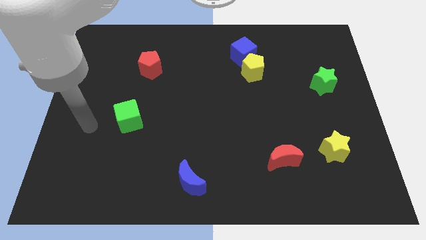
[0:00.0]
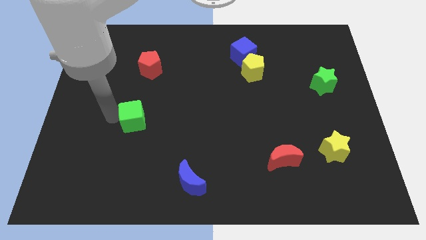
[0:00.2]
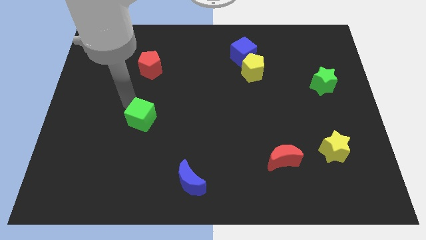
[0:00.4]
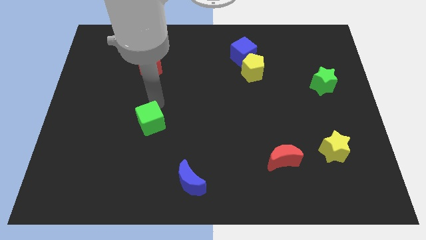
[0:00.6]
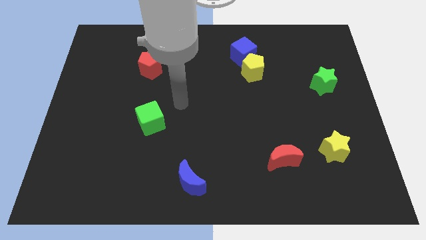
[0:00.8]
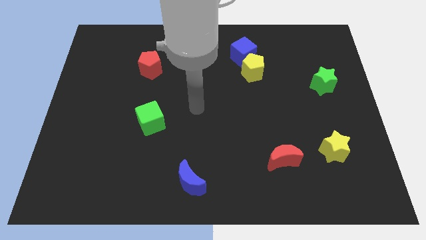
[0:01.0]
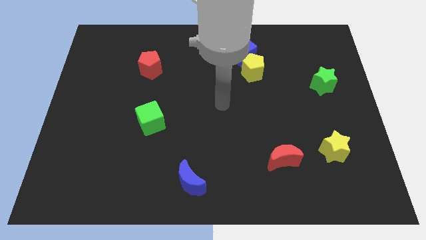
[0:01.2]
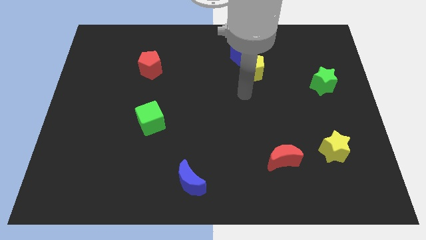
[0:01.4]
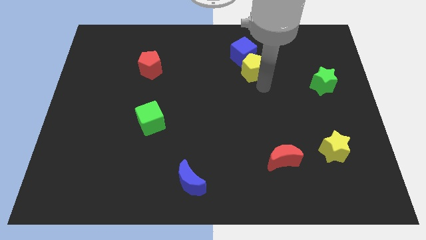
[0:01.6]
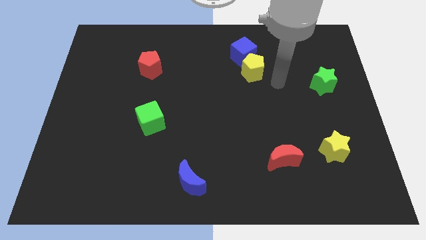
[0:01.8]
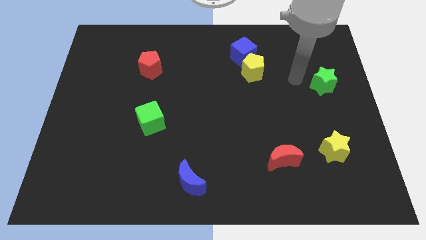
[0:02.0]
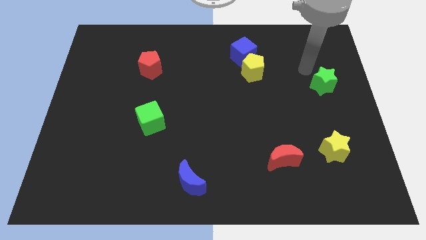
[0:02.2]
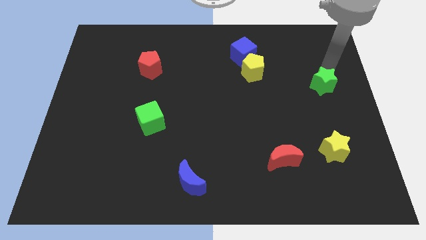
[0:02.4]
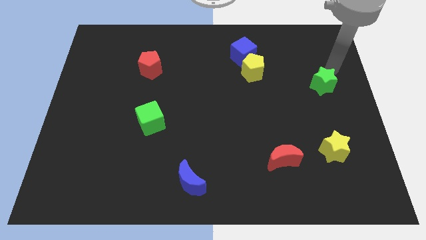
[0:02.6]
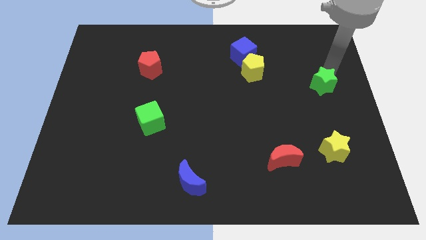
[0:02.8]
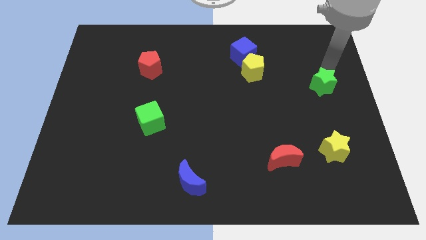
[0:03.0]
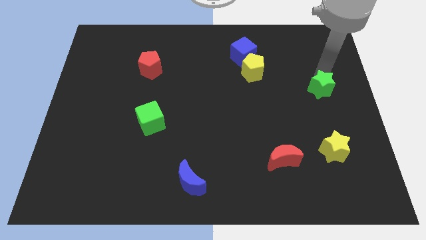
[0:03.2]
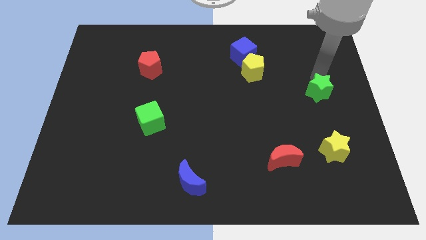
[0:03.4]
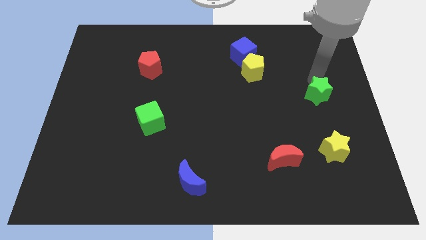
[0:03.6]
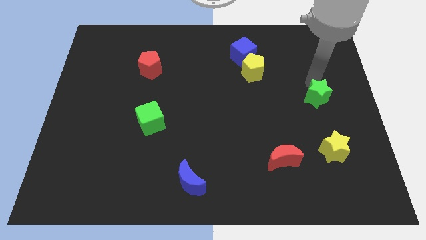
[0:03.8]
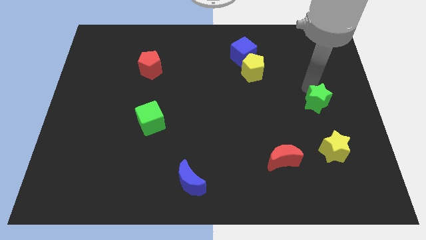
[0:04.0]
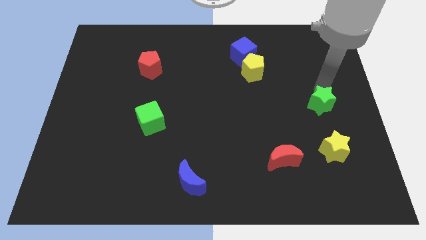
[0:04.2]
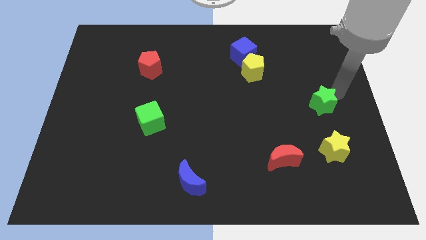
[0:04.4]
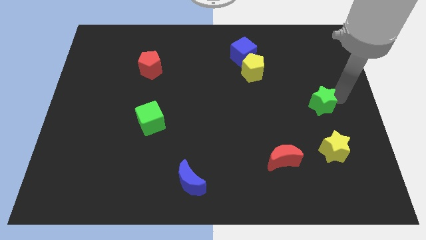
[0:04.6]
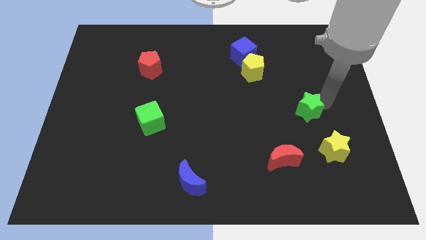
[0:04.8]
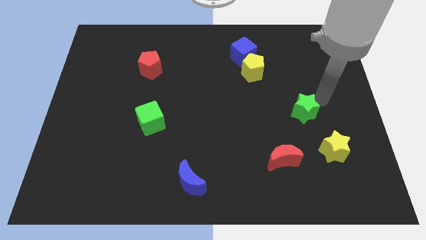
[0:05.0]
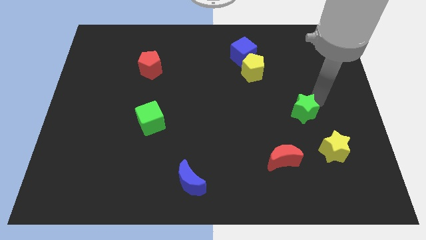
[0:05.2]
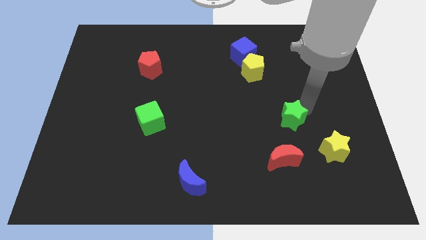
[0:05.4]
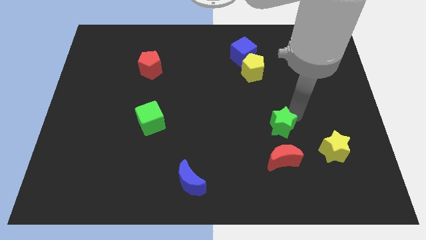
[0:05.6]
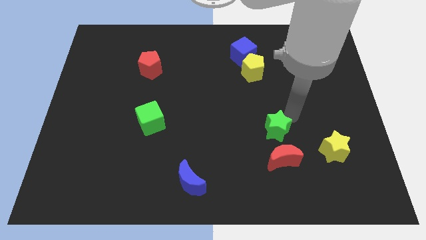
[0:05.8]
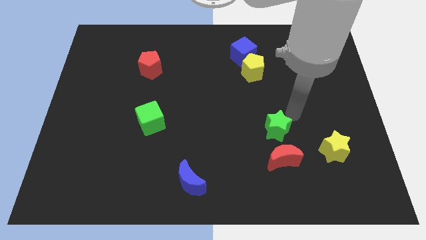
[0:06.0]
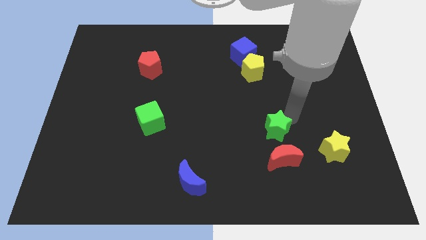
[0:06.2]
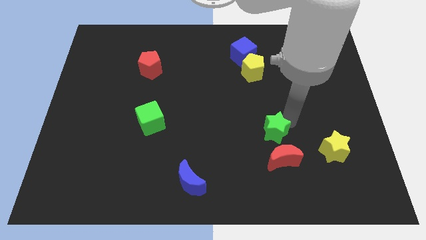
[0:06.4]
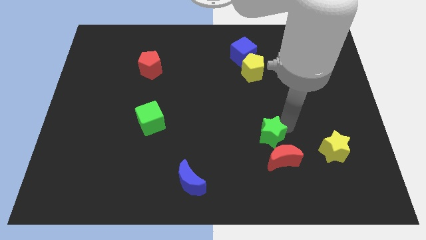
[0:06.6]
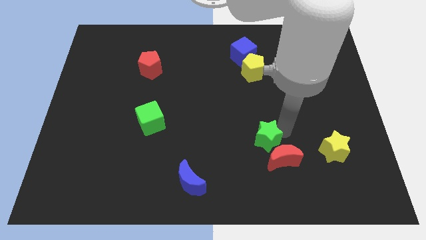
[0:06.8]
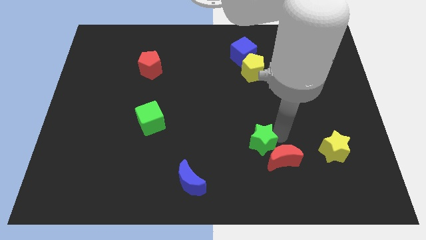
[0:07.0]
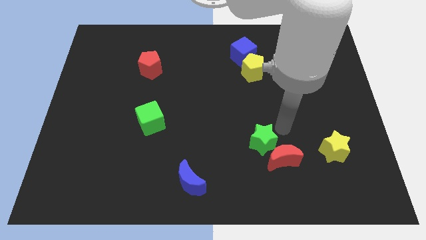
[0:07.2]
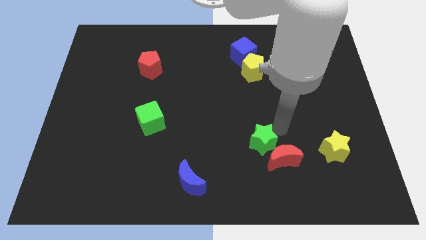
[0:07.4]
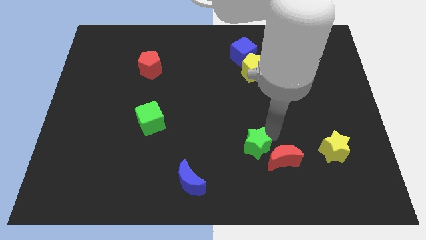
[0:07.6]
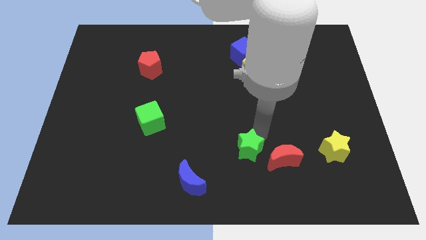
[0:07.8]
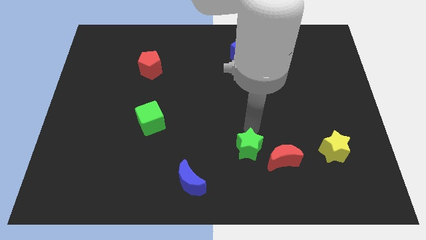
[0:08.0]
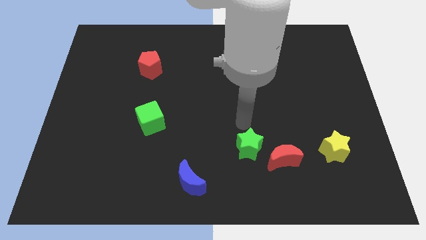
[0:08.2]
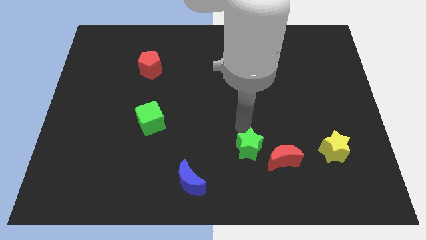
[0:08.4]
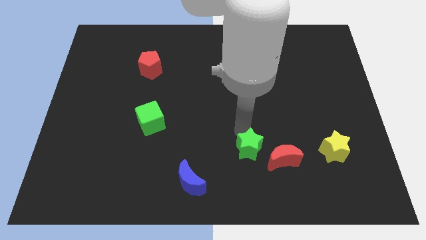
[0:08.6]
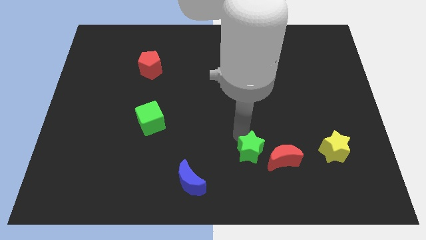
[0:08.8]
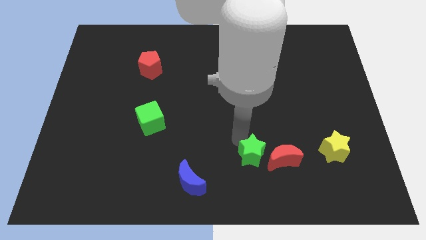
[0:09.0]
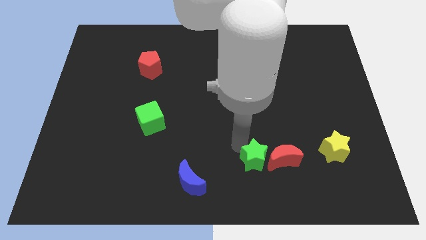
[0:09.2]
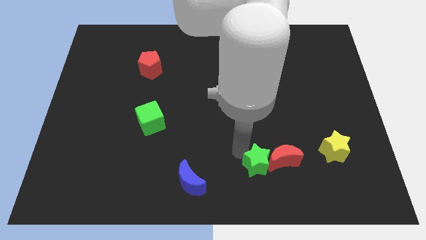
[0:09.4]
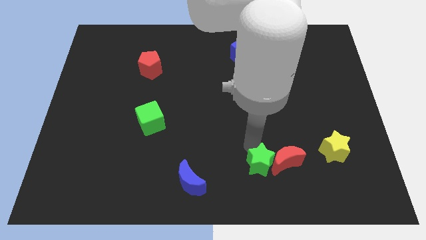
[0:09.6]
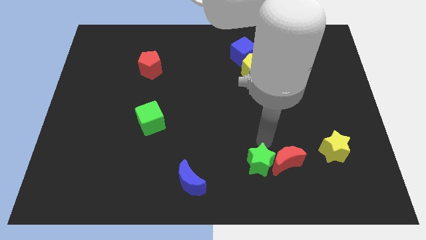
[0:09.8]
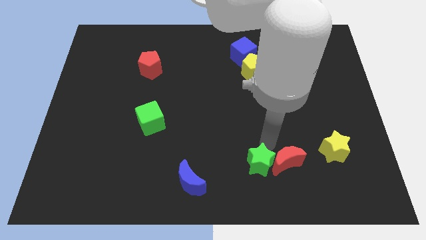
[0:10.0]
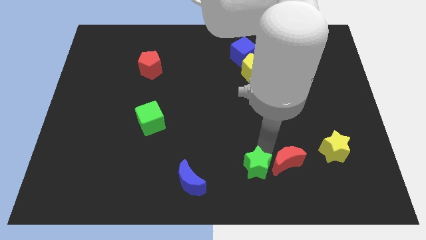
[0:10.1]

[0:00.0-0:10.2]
slide the green star to the bottom

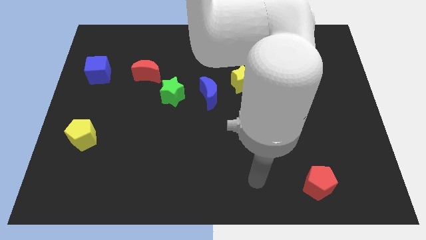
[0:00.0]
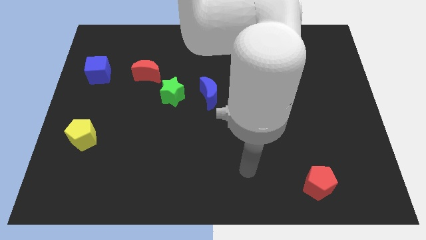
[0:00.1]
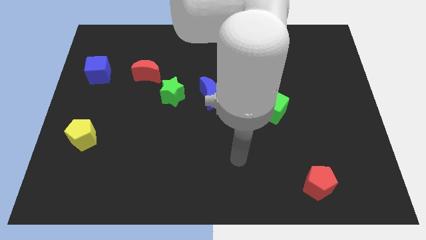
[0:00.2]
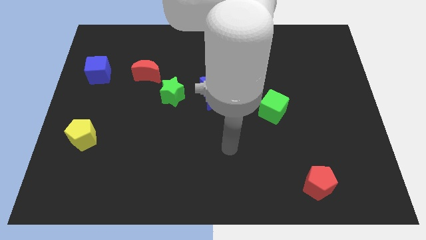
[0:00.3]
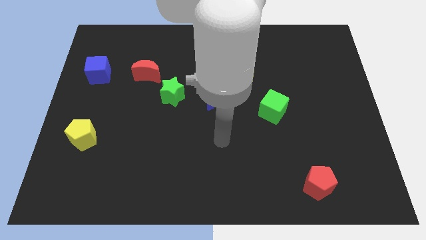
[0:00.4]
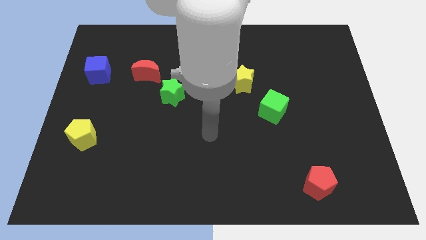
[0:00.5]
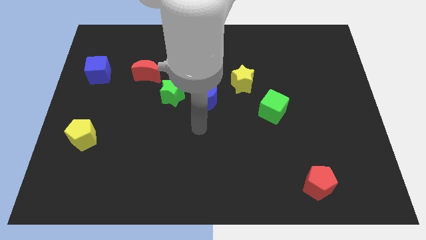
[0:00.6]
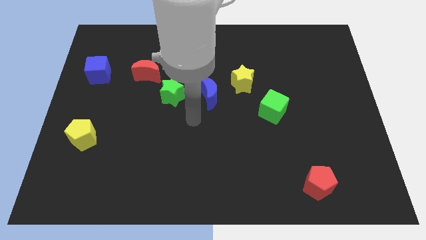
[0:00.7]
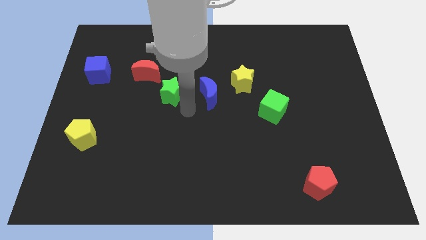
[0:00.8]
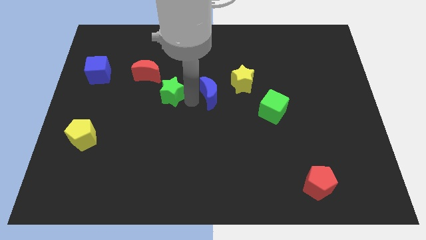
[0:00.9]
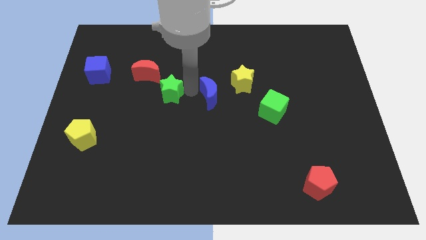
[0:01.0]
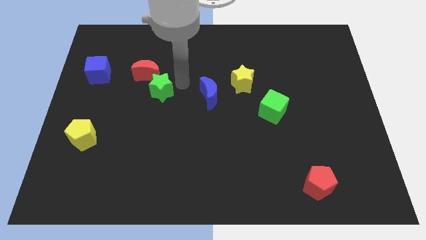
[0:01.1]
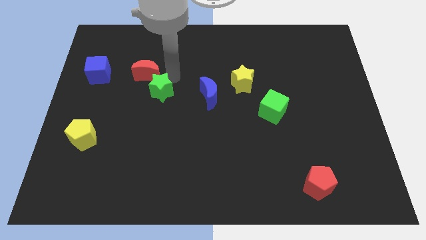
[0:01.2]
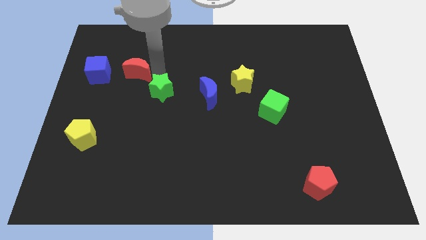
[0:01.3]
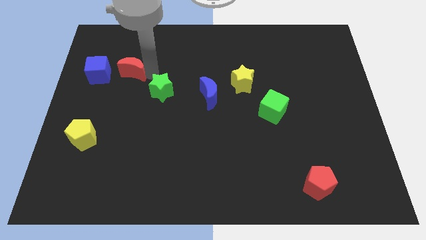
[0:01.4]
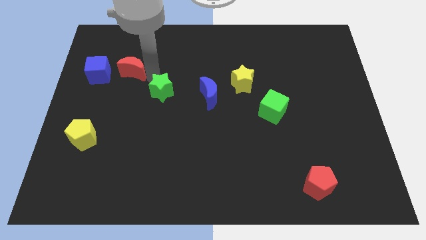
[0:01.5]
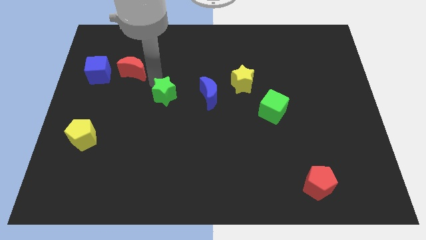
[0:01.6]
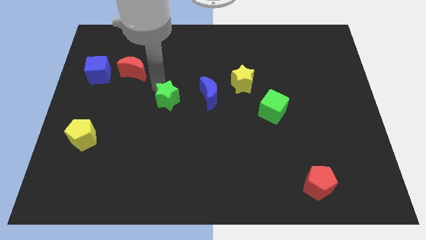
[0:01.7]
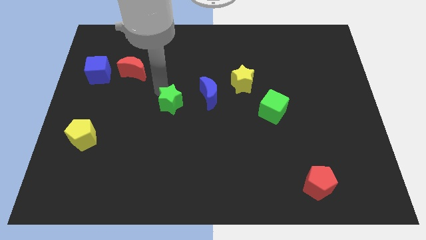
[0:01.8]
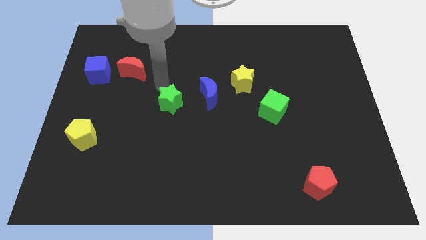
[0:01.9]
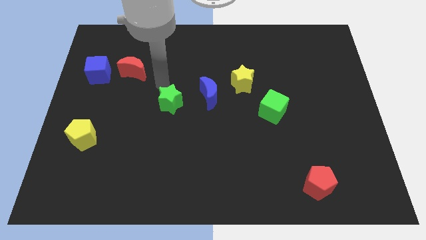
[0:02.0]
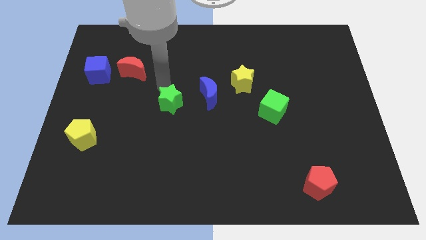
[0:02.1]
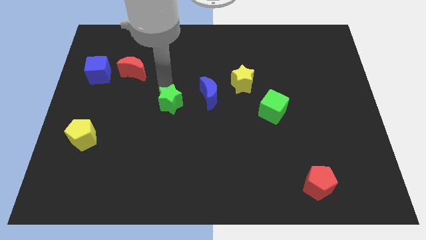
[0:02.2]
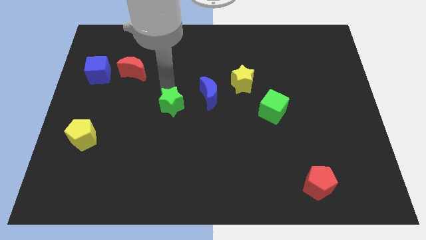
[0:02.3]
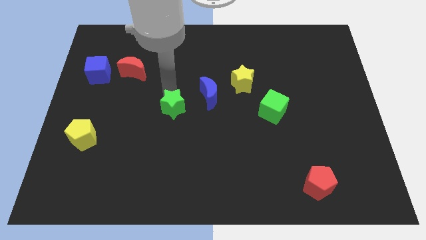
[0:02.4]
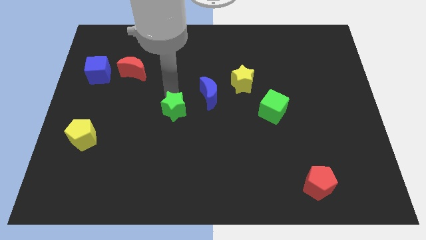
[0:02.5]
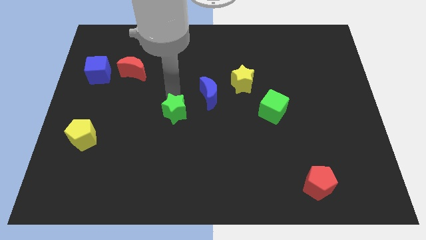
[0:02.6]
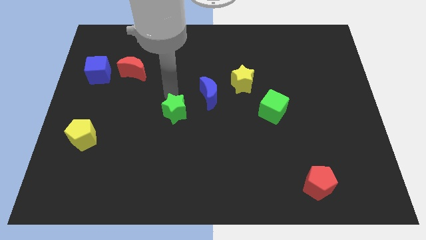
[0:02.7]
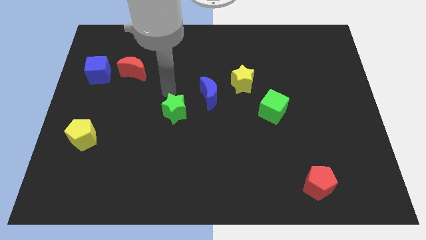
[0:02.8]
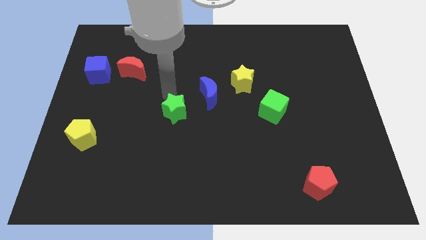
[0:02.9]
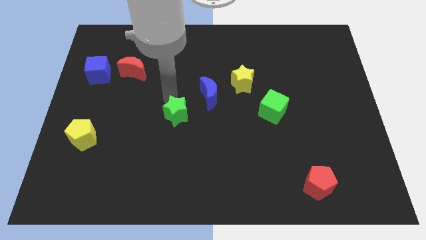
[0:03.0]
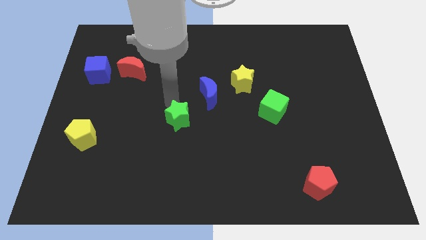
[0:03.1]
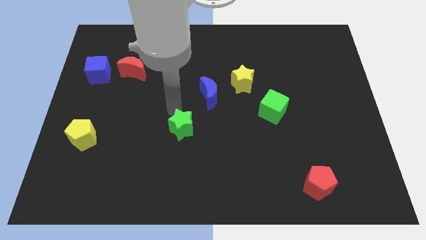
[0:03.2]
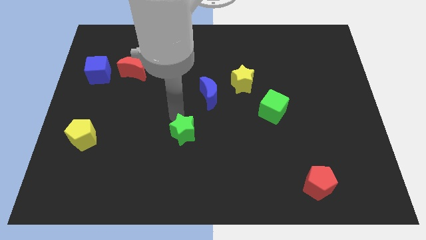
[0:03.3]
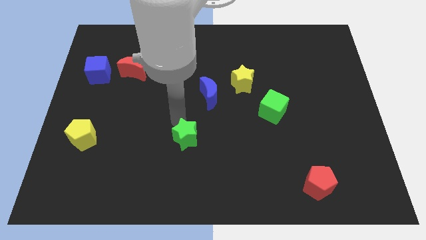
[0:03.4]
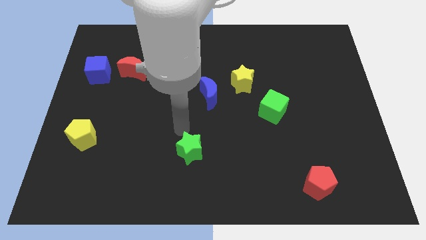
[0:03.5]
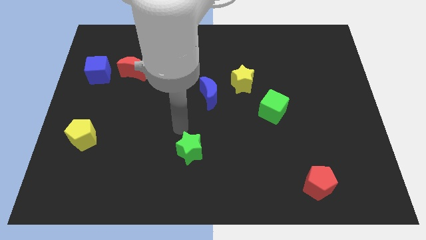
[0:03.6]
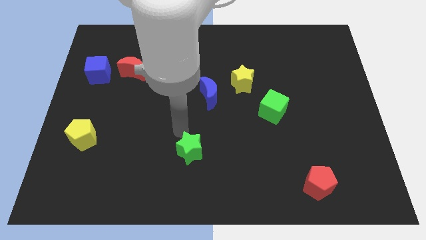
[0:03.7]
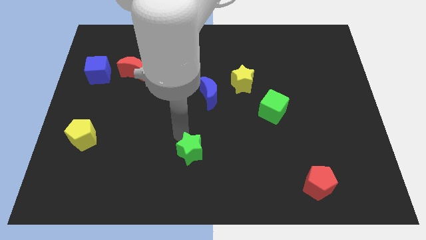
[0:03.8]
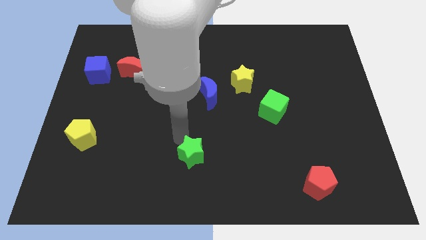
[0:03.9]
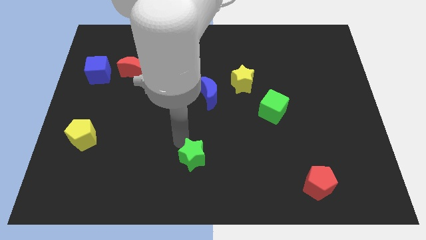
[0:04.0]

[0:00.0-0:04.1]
put the green star to the bottom
